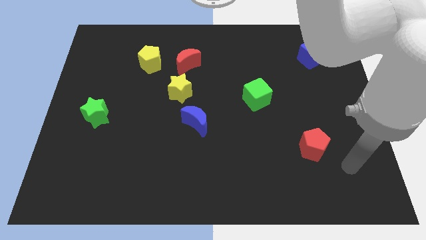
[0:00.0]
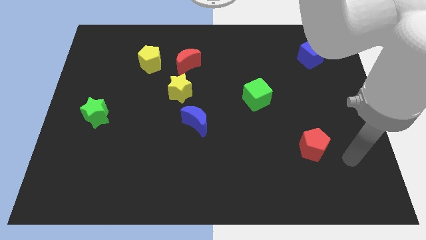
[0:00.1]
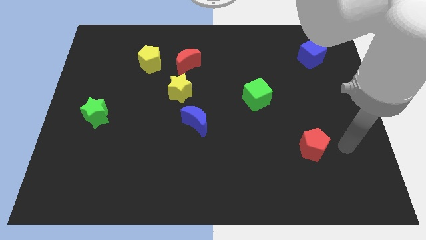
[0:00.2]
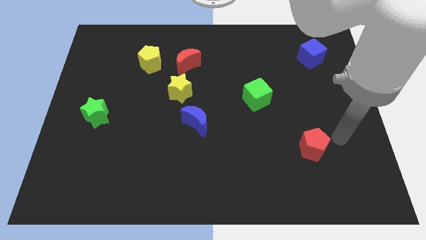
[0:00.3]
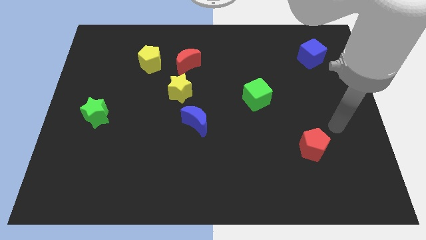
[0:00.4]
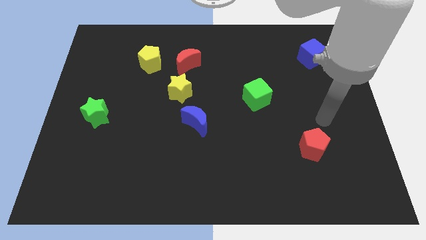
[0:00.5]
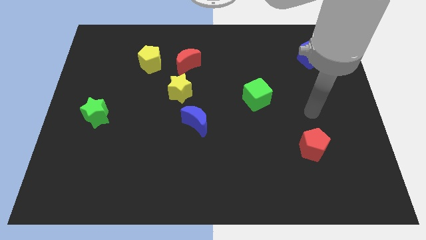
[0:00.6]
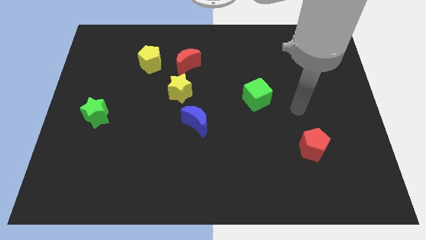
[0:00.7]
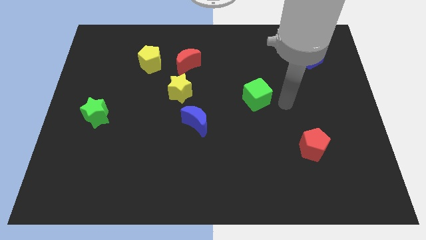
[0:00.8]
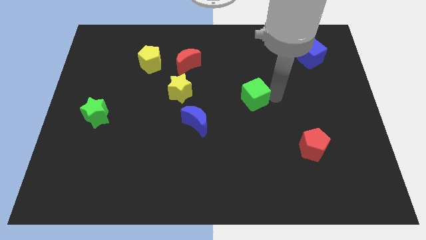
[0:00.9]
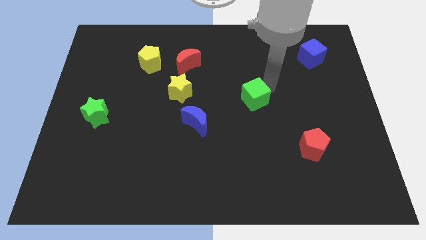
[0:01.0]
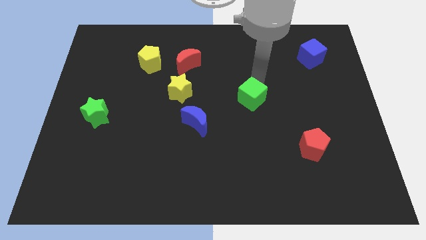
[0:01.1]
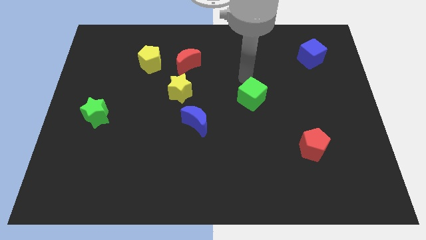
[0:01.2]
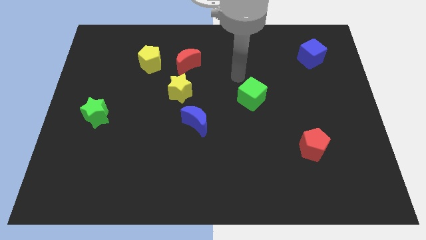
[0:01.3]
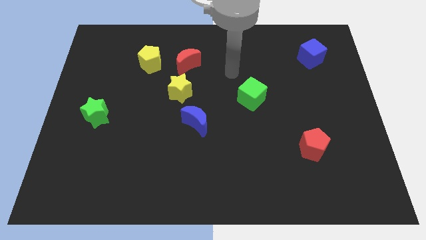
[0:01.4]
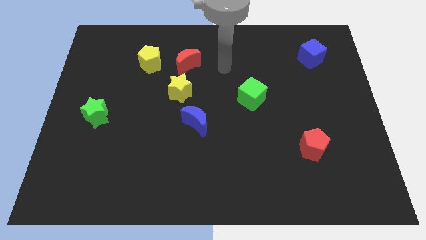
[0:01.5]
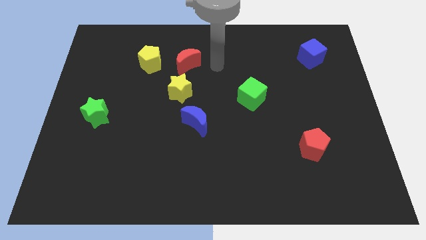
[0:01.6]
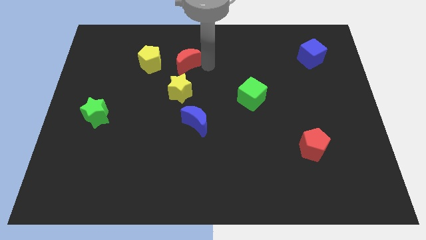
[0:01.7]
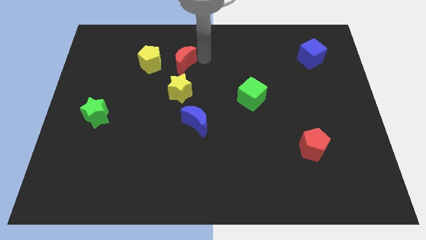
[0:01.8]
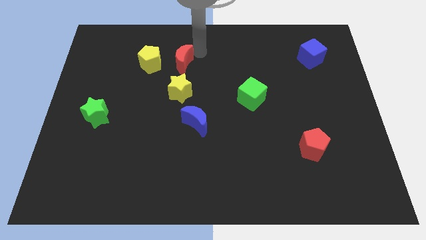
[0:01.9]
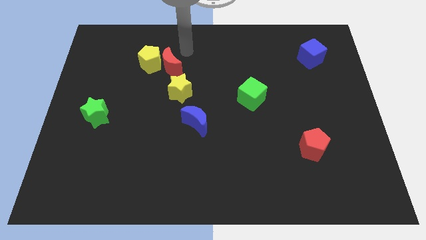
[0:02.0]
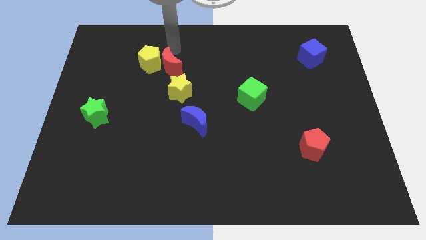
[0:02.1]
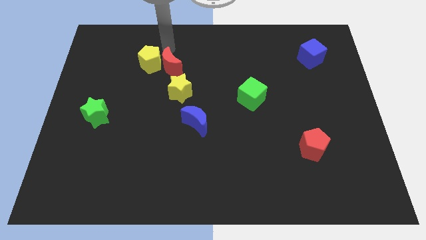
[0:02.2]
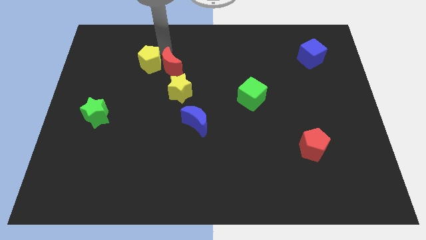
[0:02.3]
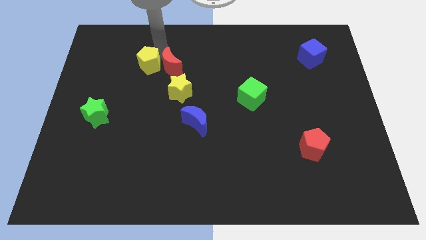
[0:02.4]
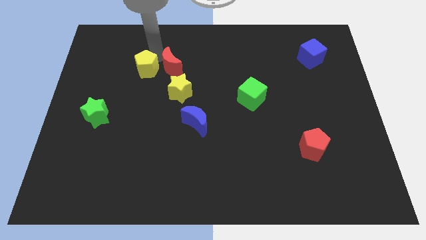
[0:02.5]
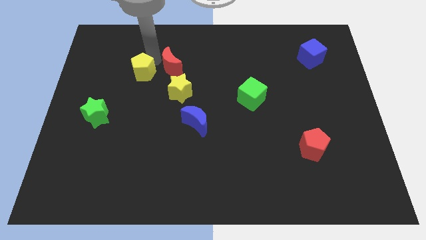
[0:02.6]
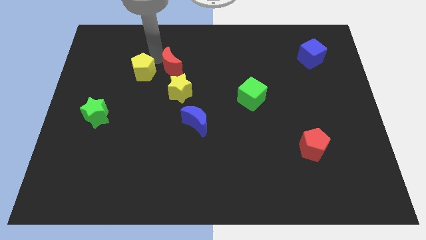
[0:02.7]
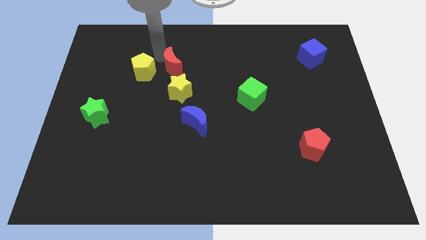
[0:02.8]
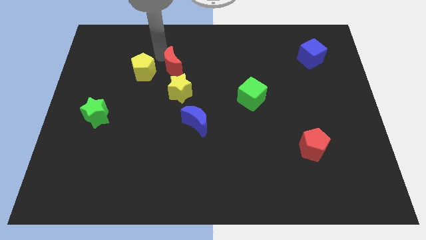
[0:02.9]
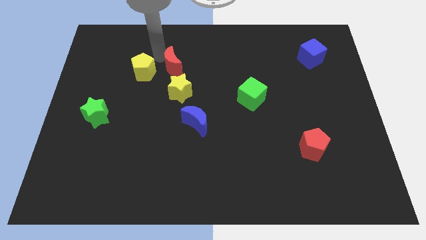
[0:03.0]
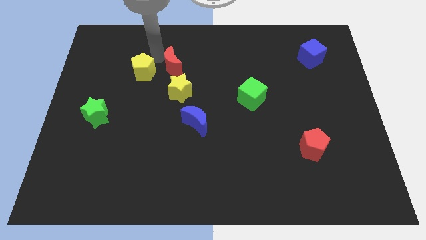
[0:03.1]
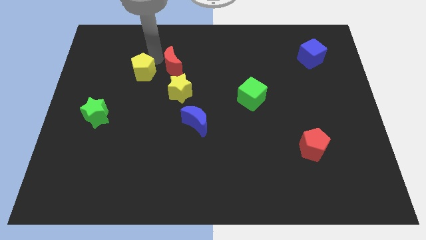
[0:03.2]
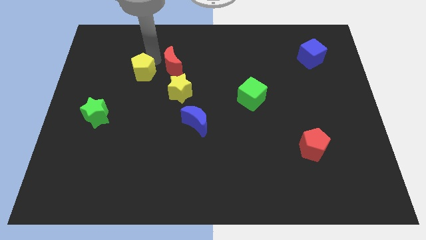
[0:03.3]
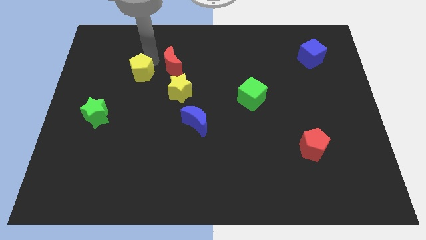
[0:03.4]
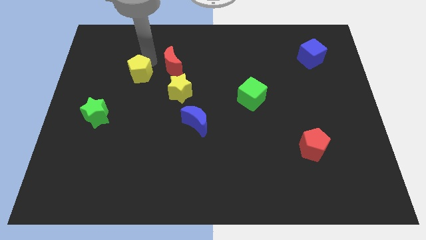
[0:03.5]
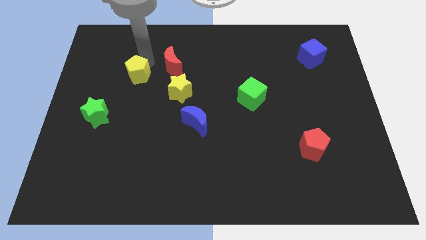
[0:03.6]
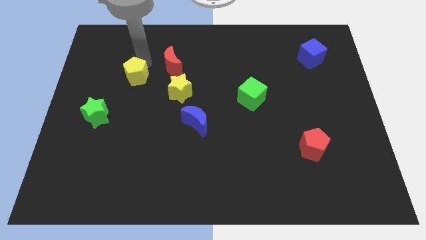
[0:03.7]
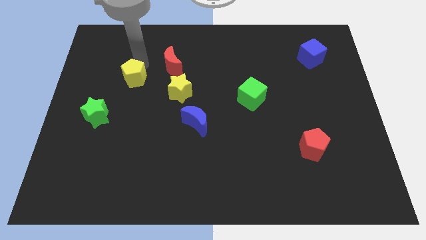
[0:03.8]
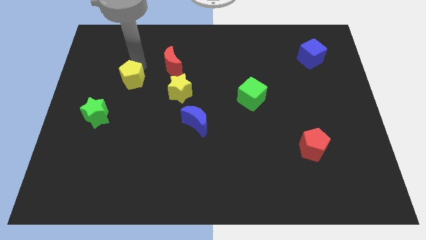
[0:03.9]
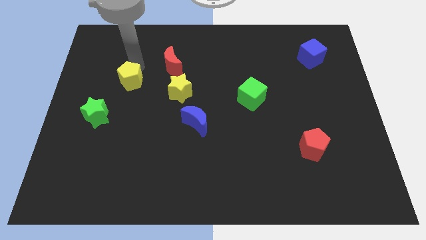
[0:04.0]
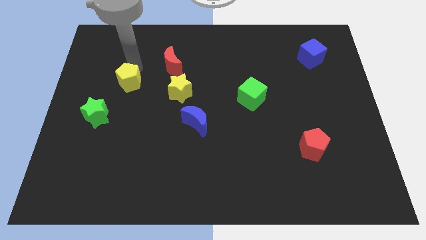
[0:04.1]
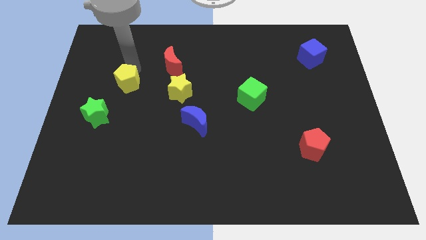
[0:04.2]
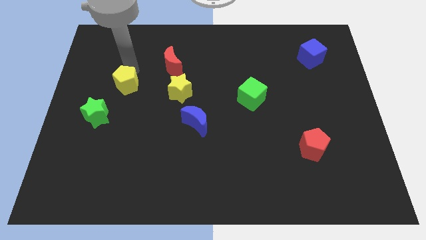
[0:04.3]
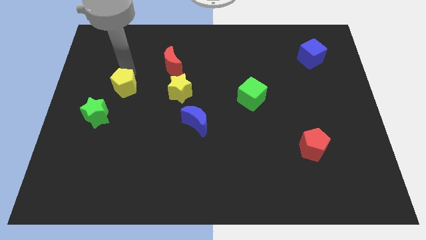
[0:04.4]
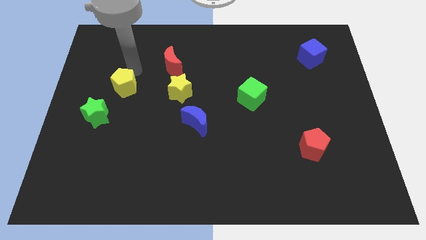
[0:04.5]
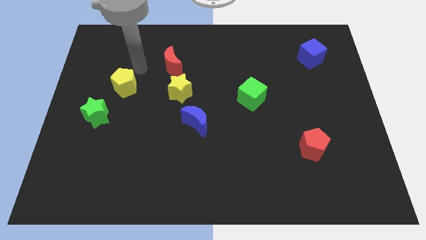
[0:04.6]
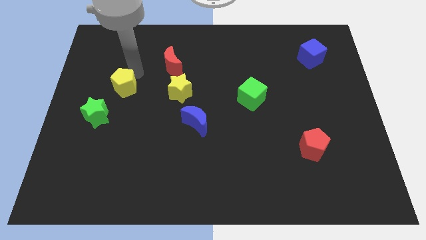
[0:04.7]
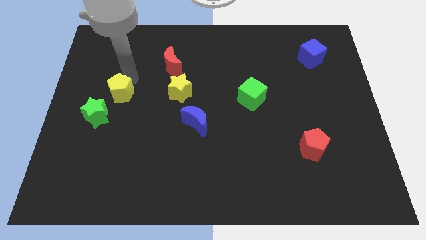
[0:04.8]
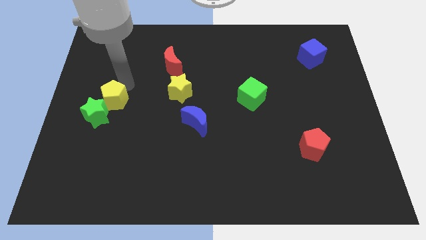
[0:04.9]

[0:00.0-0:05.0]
slide the yellow pentagon next to the green star

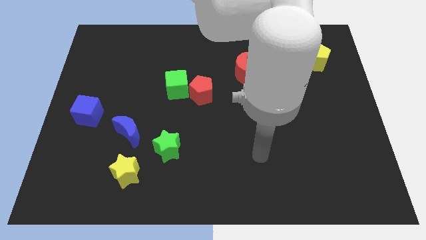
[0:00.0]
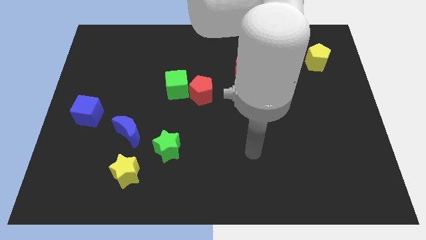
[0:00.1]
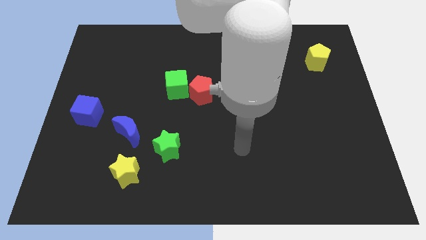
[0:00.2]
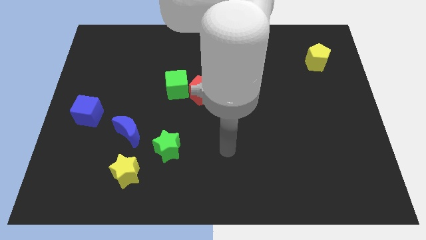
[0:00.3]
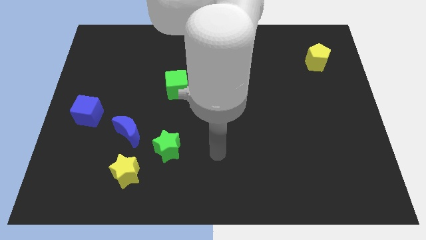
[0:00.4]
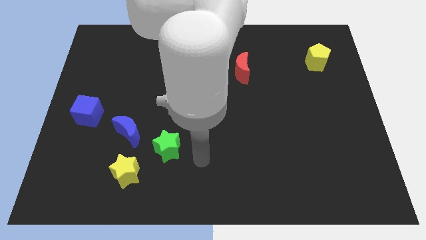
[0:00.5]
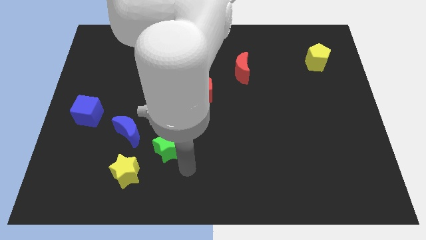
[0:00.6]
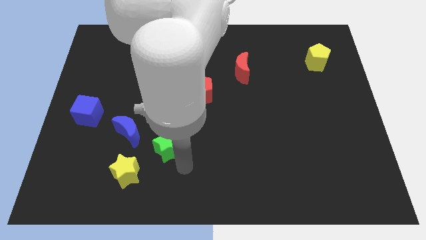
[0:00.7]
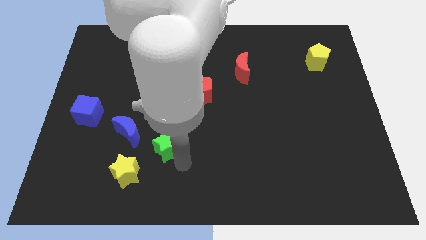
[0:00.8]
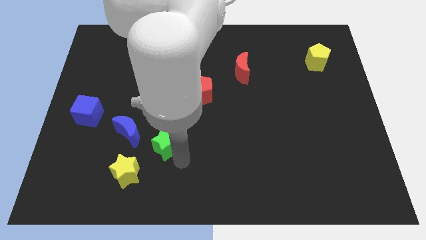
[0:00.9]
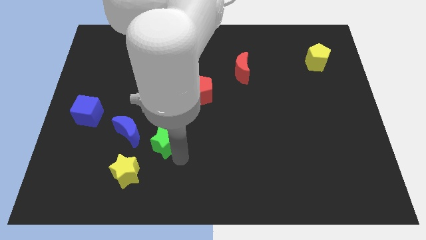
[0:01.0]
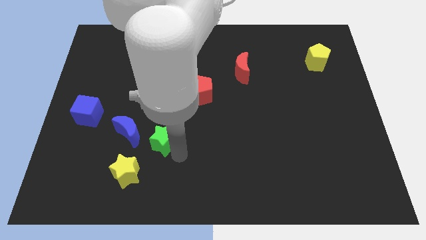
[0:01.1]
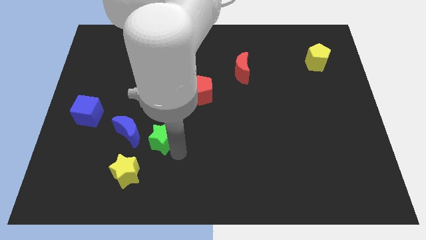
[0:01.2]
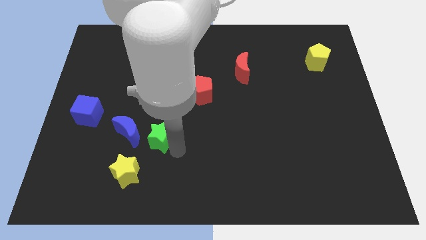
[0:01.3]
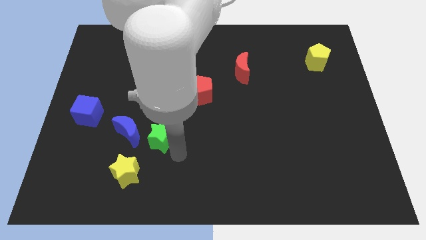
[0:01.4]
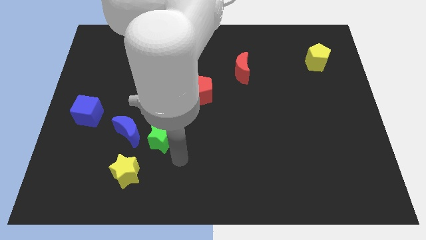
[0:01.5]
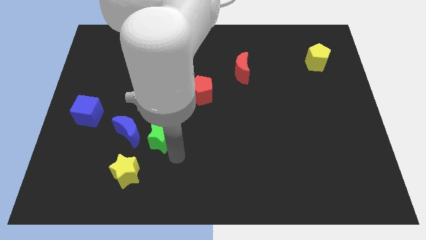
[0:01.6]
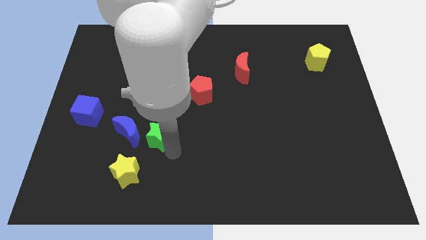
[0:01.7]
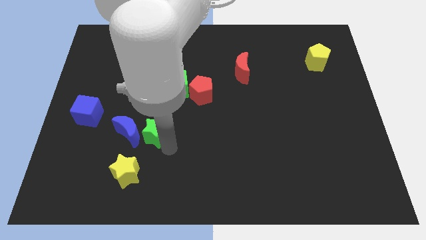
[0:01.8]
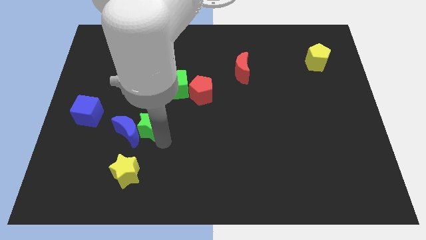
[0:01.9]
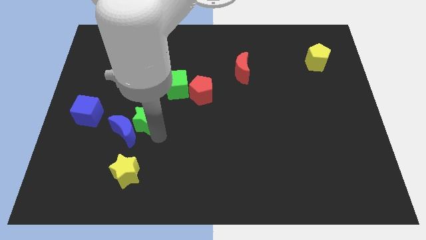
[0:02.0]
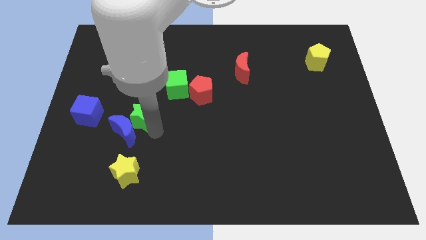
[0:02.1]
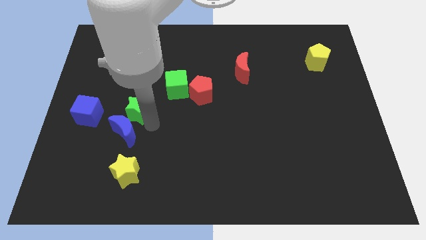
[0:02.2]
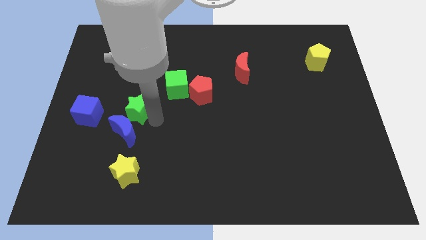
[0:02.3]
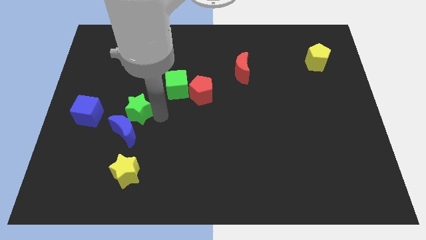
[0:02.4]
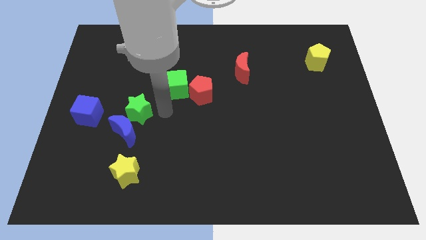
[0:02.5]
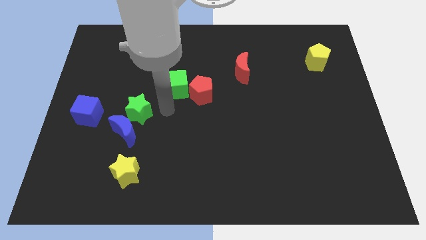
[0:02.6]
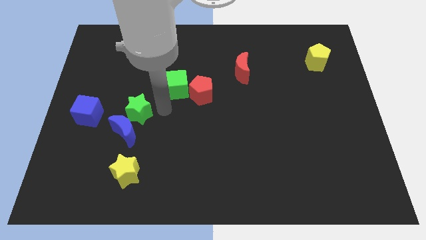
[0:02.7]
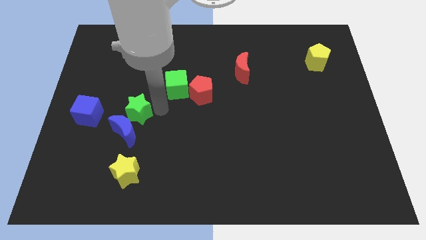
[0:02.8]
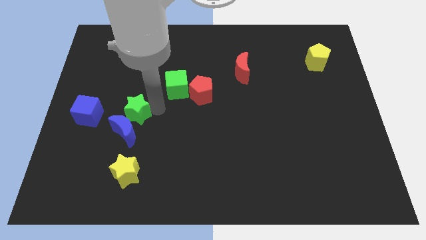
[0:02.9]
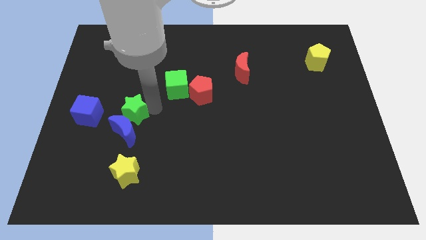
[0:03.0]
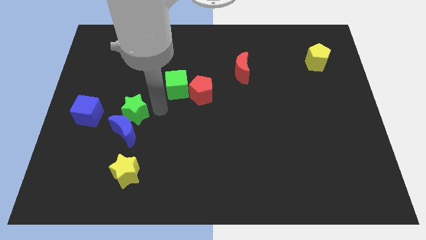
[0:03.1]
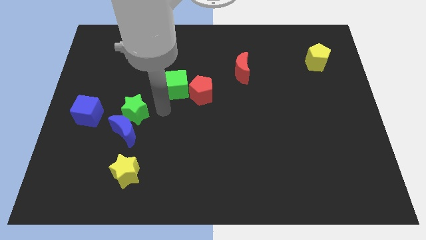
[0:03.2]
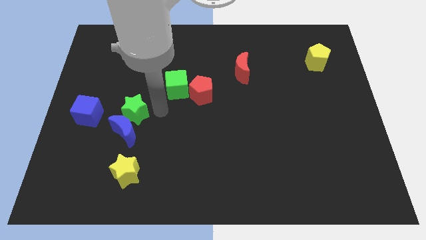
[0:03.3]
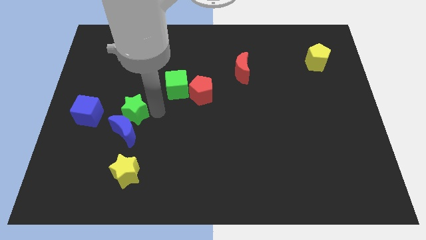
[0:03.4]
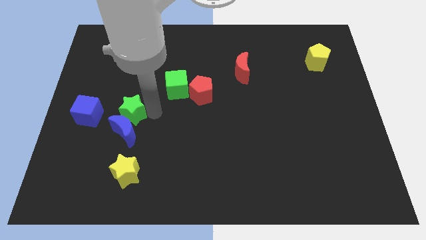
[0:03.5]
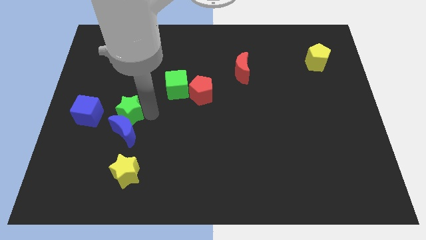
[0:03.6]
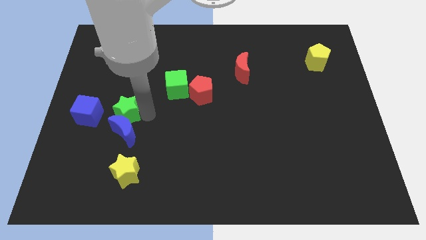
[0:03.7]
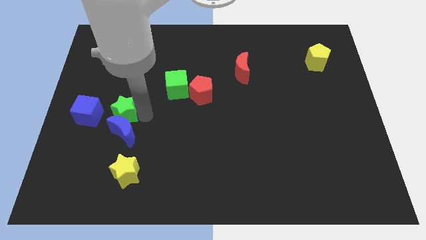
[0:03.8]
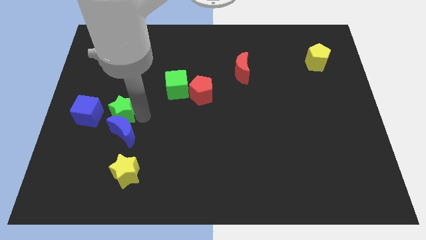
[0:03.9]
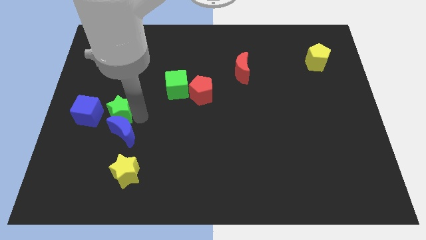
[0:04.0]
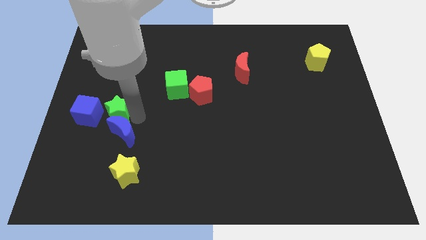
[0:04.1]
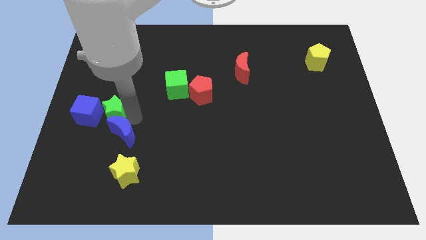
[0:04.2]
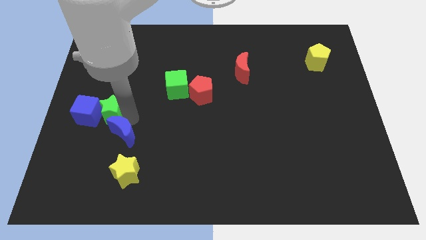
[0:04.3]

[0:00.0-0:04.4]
slide the green star next to the blue cube
